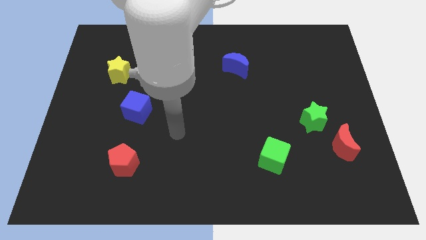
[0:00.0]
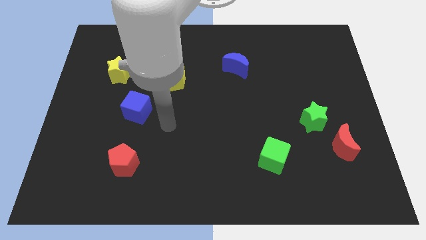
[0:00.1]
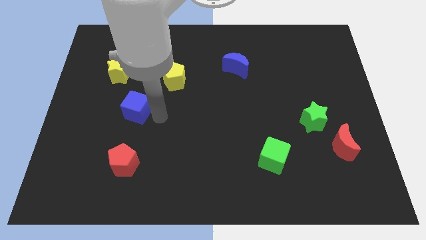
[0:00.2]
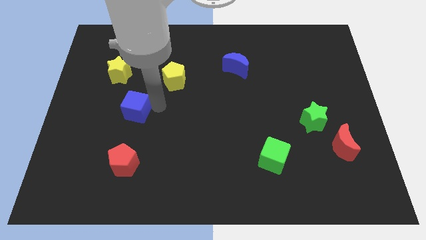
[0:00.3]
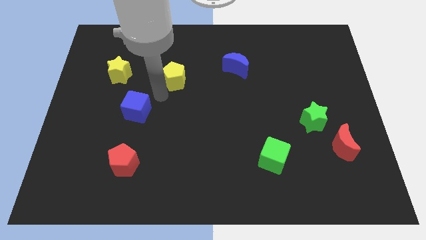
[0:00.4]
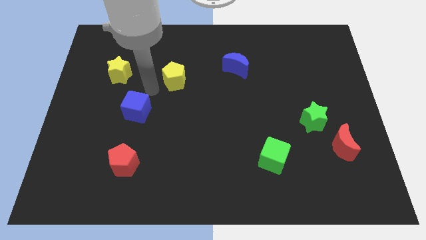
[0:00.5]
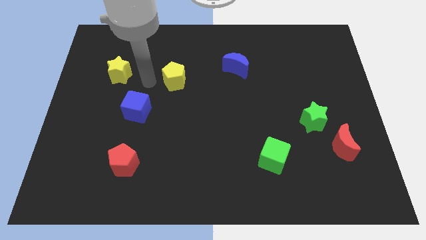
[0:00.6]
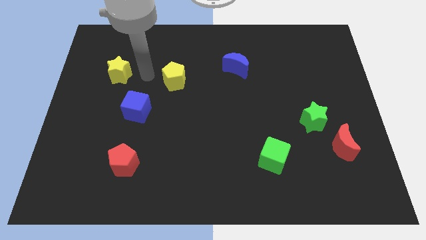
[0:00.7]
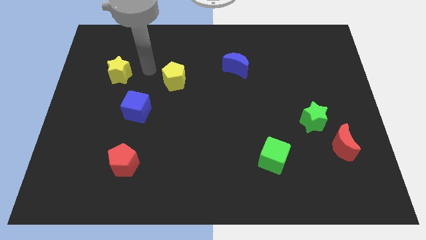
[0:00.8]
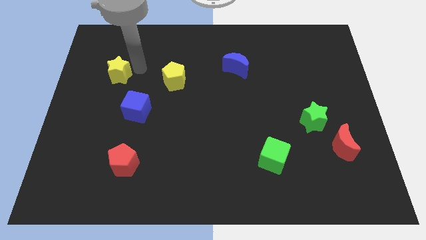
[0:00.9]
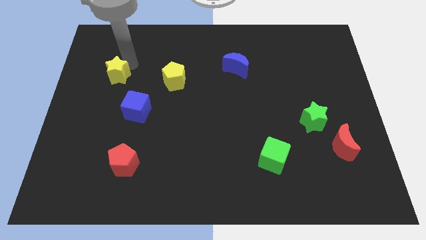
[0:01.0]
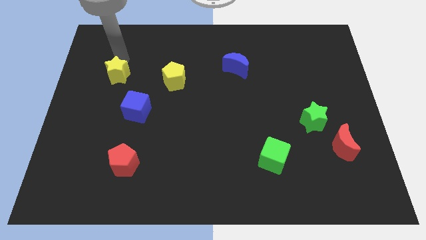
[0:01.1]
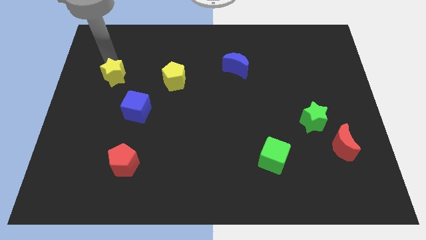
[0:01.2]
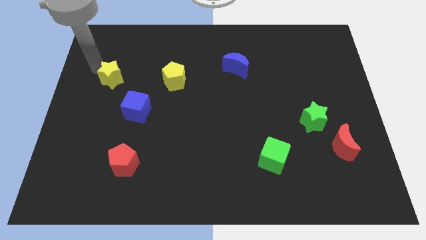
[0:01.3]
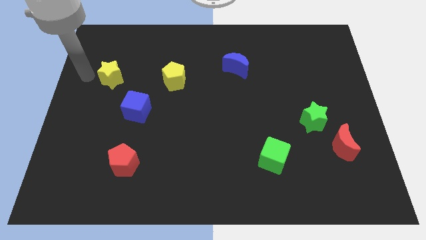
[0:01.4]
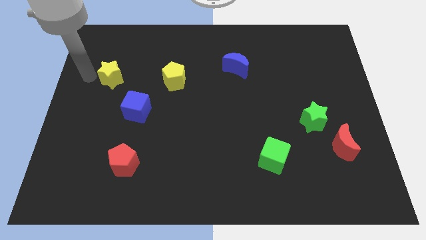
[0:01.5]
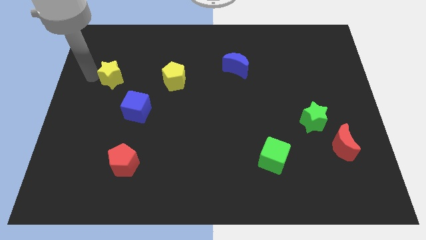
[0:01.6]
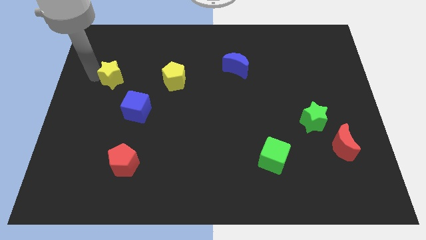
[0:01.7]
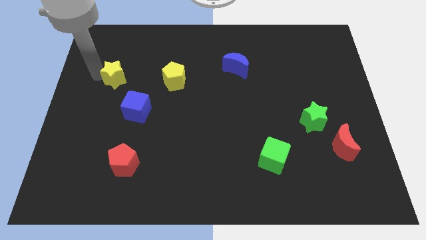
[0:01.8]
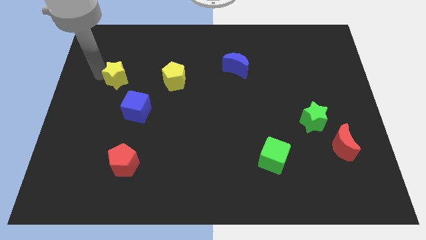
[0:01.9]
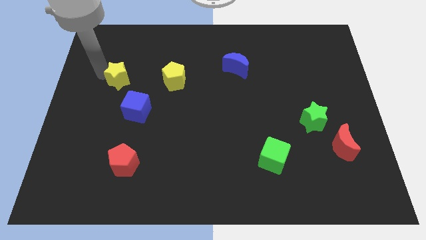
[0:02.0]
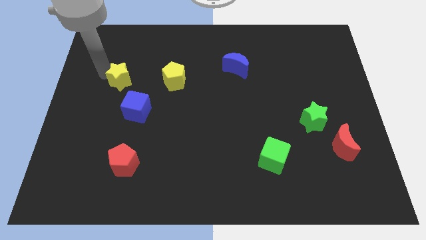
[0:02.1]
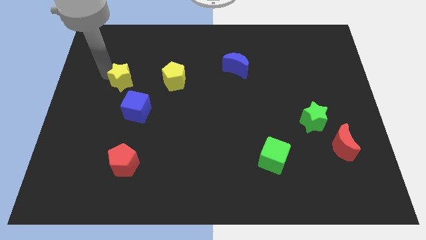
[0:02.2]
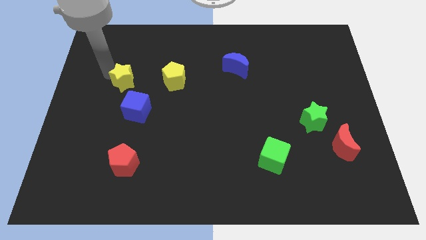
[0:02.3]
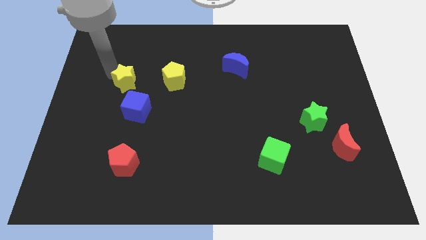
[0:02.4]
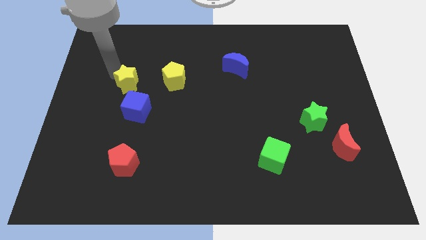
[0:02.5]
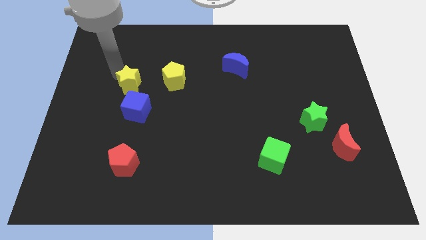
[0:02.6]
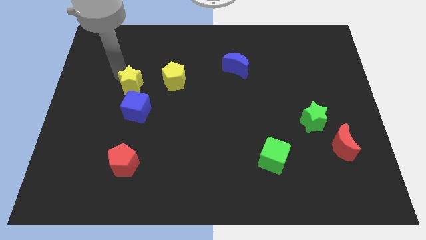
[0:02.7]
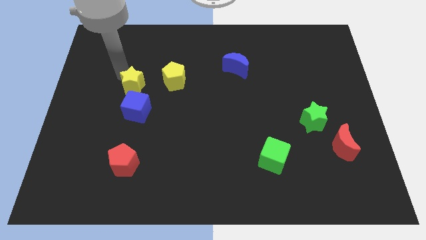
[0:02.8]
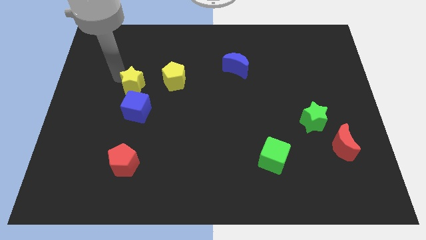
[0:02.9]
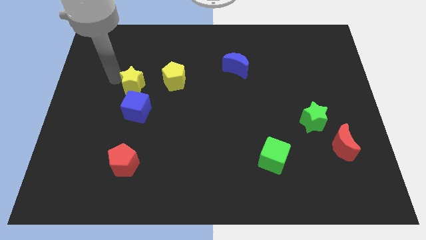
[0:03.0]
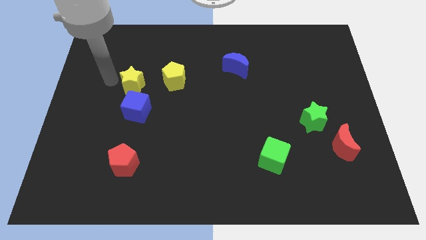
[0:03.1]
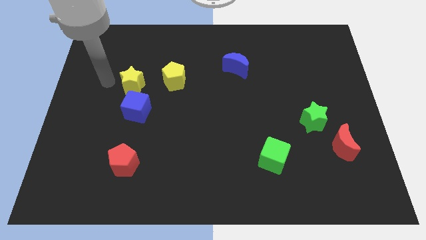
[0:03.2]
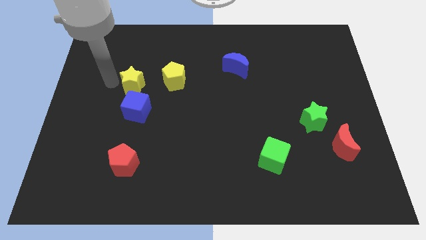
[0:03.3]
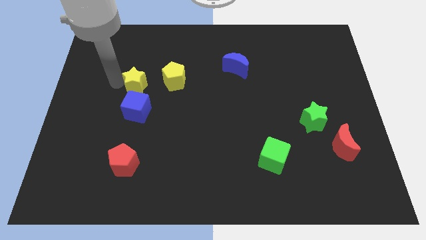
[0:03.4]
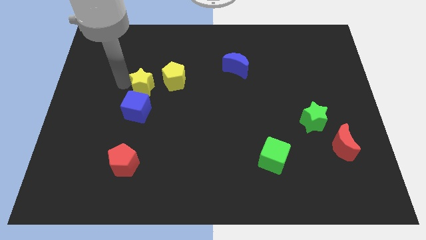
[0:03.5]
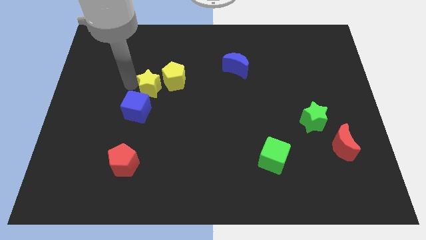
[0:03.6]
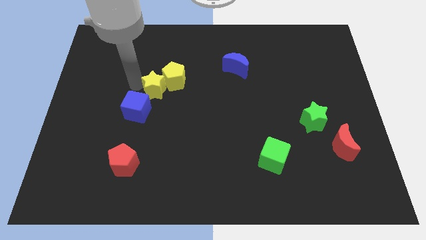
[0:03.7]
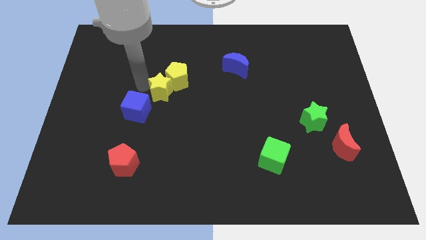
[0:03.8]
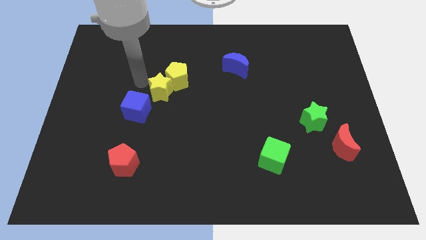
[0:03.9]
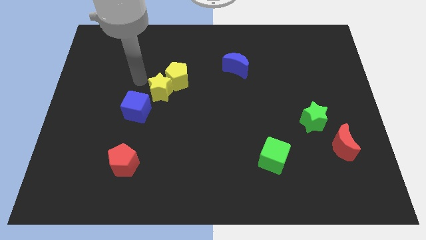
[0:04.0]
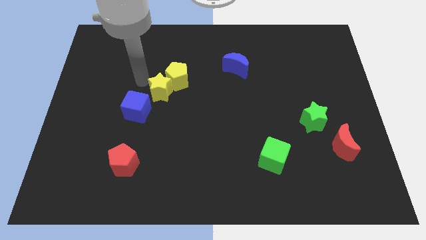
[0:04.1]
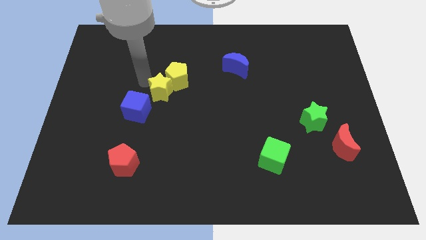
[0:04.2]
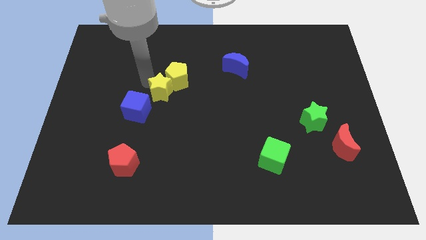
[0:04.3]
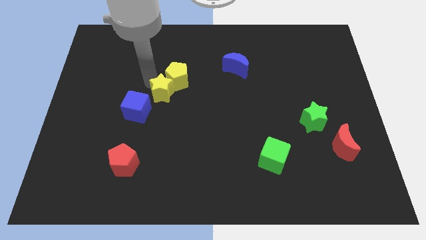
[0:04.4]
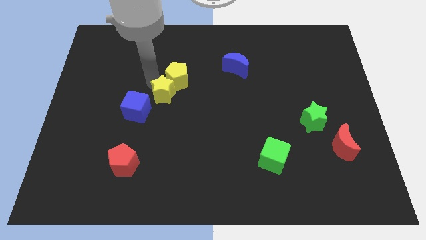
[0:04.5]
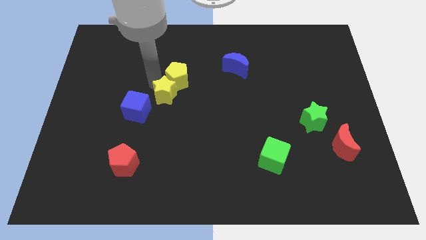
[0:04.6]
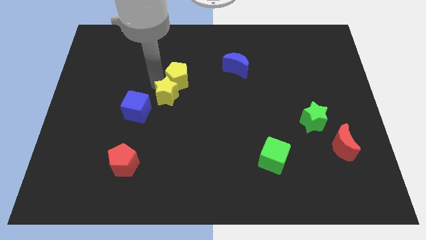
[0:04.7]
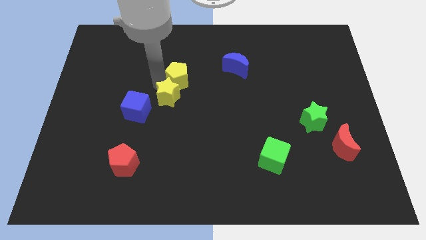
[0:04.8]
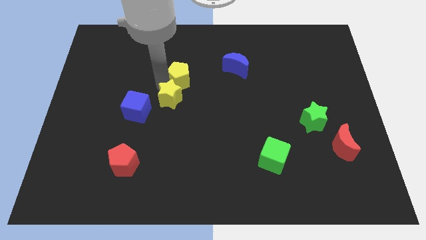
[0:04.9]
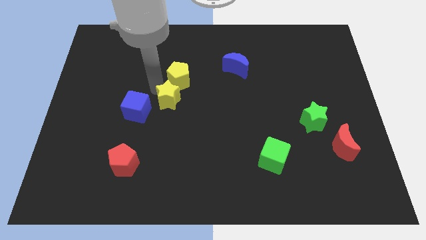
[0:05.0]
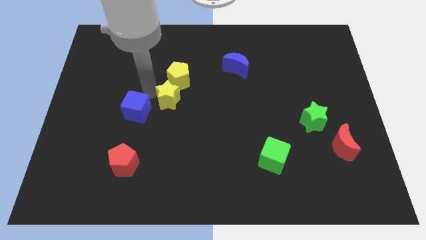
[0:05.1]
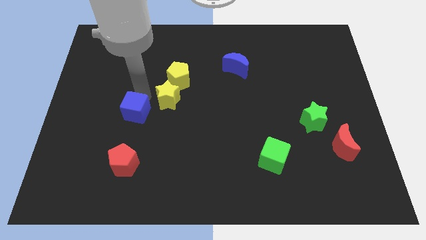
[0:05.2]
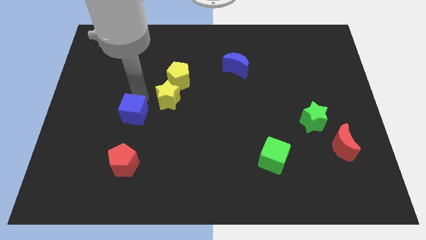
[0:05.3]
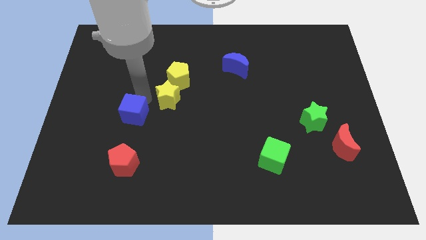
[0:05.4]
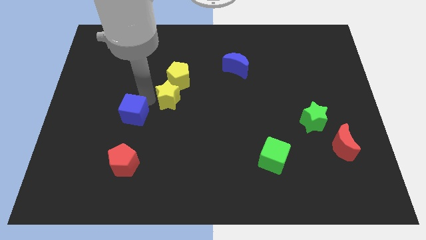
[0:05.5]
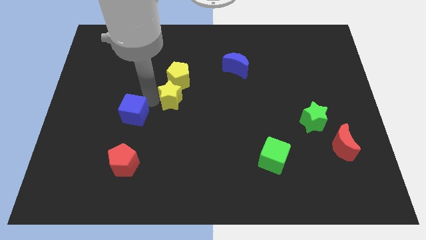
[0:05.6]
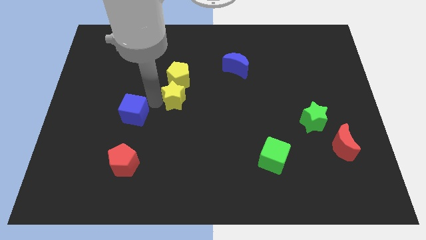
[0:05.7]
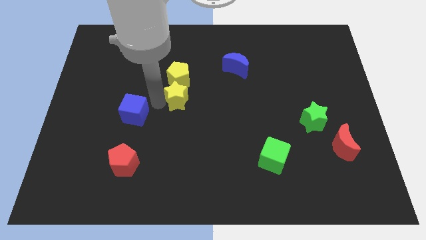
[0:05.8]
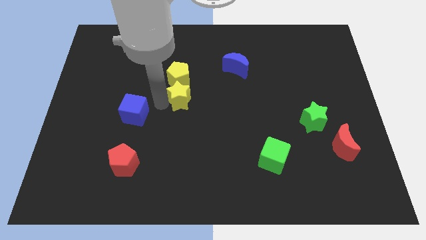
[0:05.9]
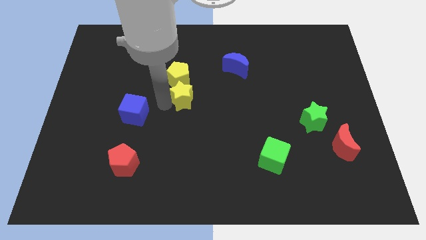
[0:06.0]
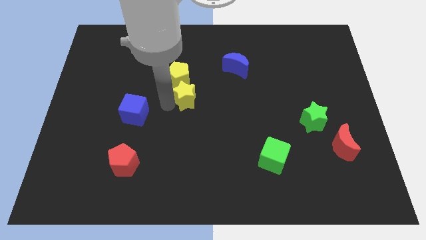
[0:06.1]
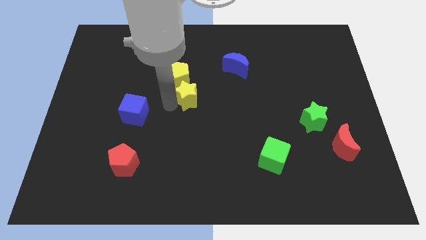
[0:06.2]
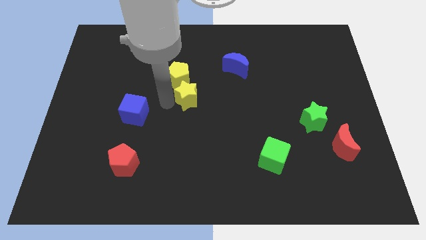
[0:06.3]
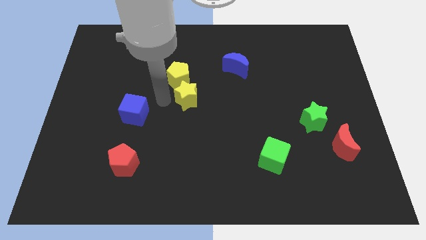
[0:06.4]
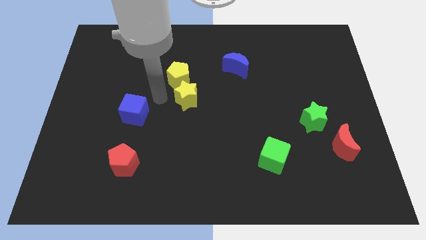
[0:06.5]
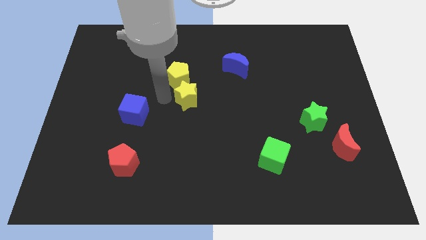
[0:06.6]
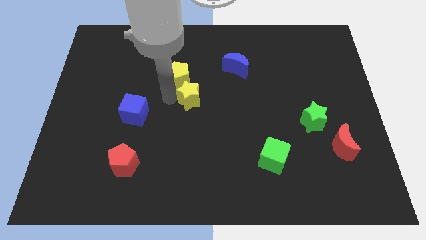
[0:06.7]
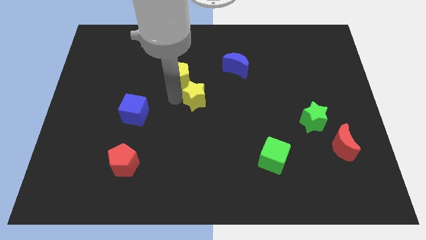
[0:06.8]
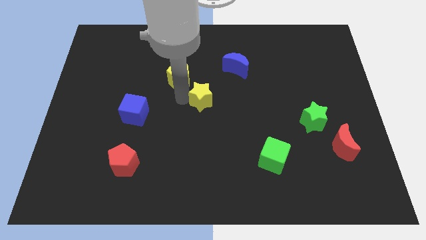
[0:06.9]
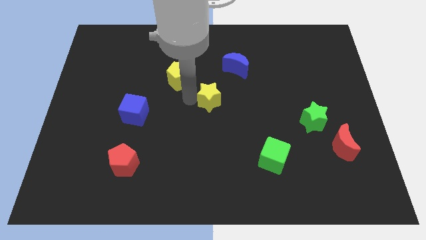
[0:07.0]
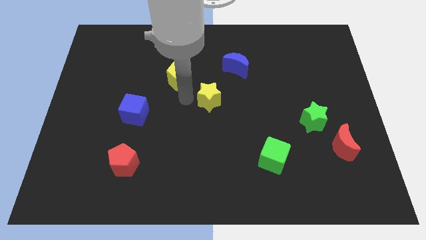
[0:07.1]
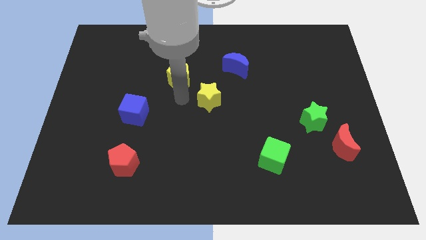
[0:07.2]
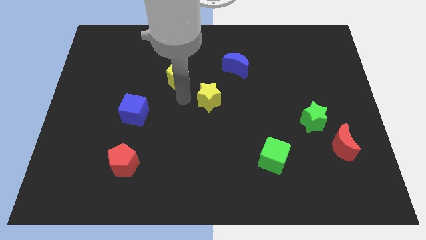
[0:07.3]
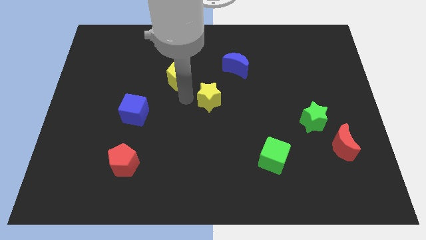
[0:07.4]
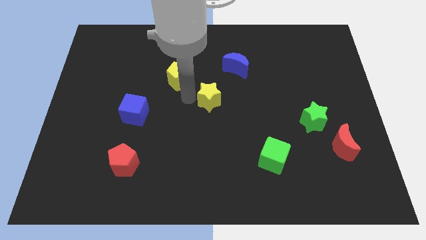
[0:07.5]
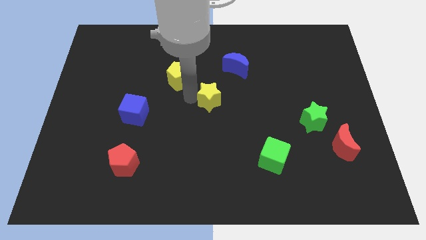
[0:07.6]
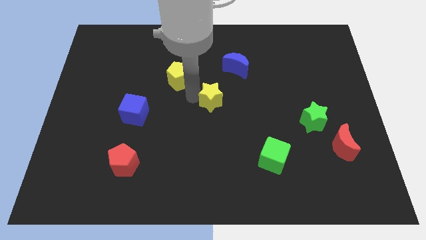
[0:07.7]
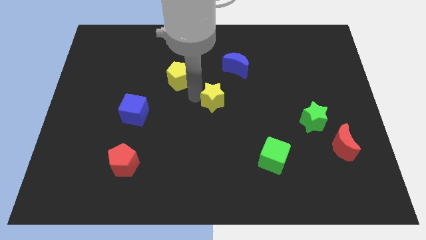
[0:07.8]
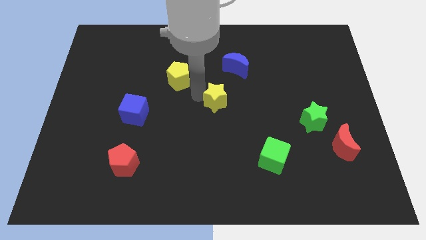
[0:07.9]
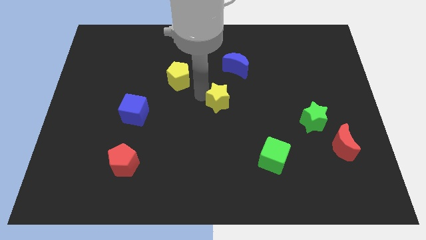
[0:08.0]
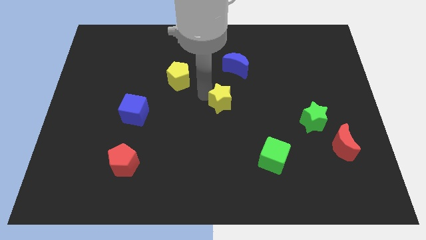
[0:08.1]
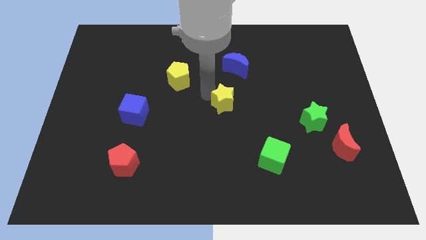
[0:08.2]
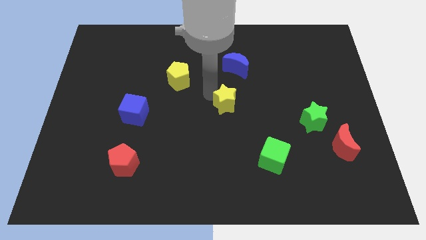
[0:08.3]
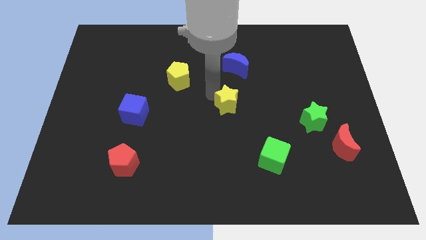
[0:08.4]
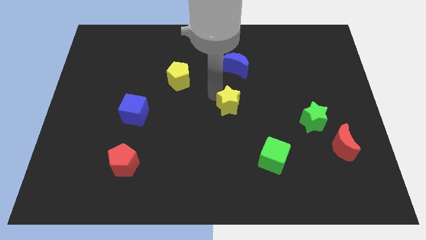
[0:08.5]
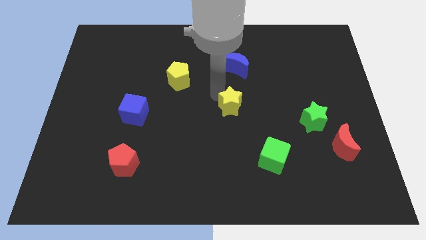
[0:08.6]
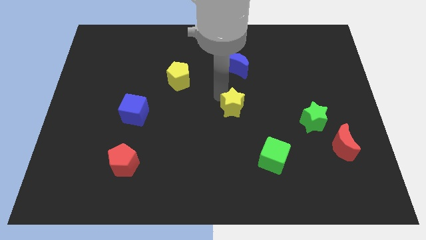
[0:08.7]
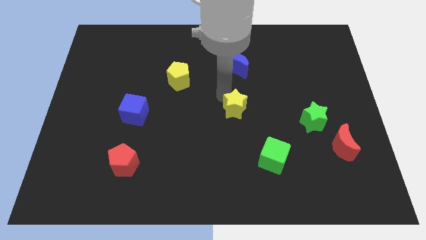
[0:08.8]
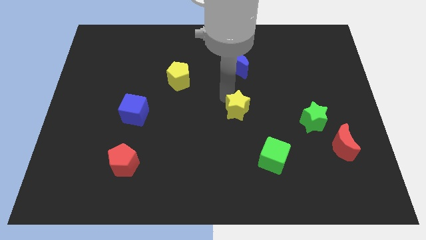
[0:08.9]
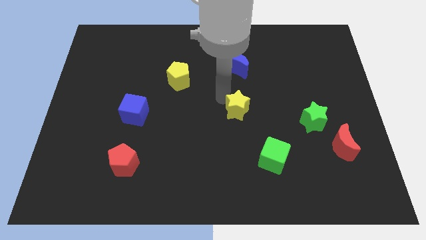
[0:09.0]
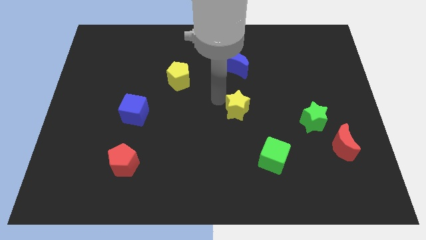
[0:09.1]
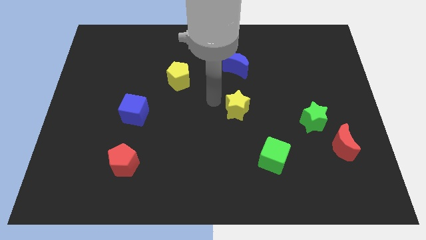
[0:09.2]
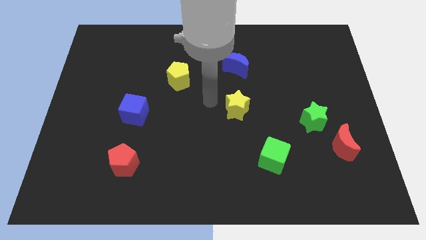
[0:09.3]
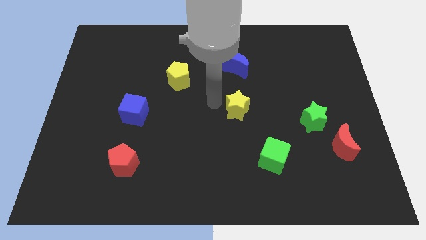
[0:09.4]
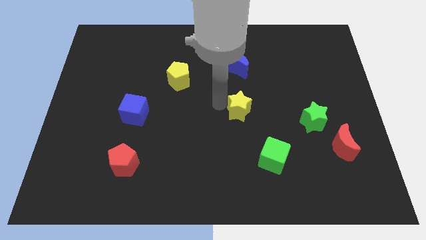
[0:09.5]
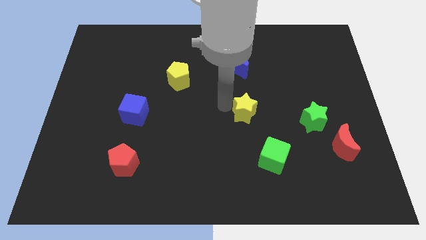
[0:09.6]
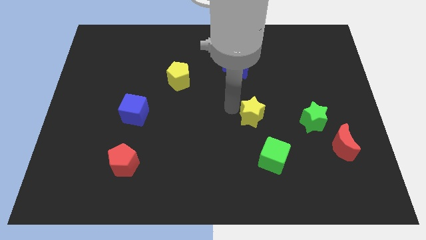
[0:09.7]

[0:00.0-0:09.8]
move the yellow star to the top of the green cube
